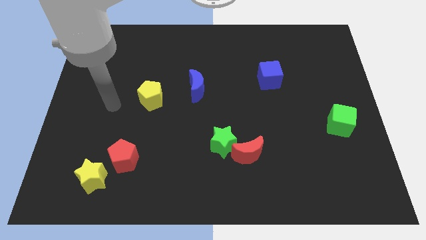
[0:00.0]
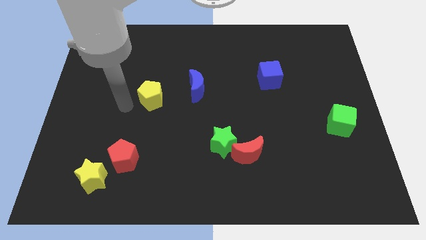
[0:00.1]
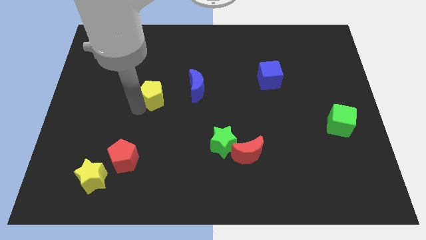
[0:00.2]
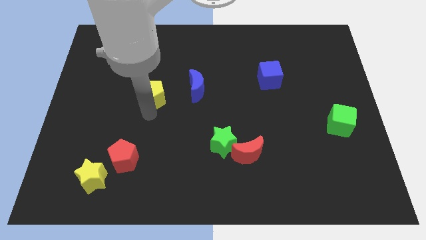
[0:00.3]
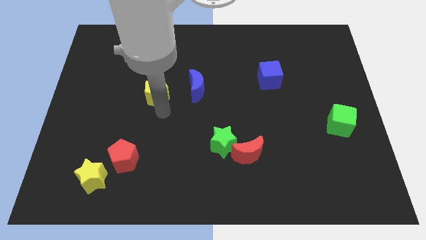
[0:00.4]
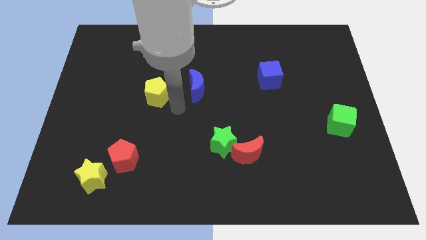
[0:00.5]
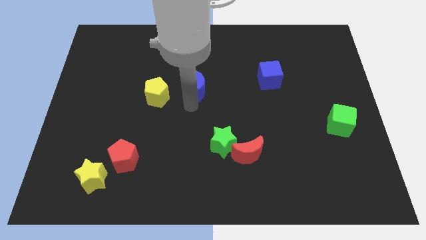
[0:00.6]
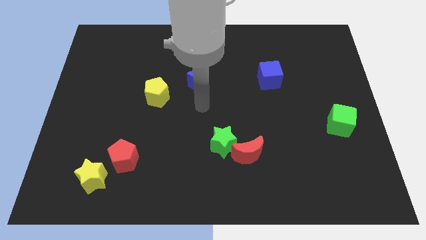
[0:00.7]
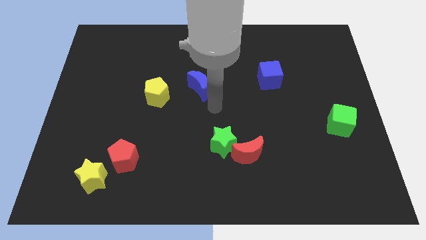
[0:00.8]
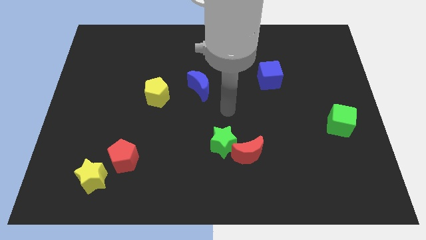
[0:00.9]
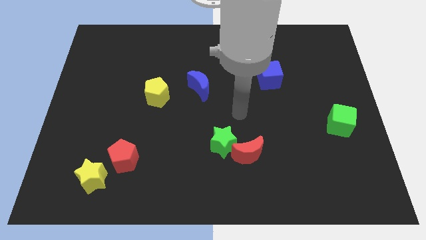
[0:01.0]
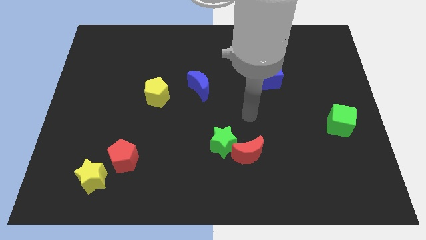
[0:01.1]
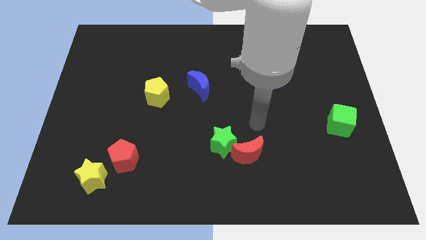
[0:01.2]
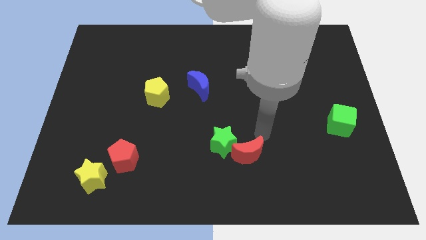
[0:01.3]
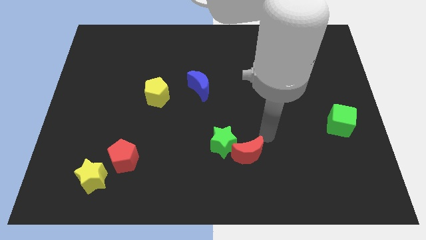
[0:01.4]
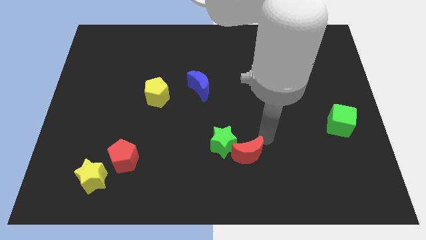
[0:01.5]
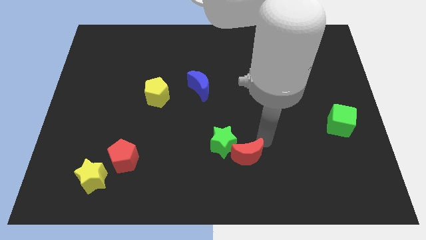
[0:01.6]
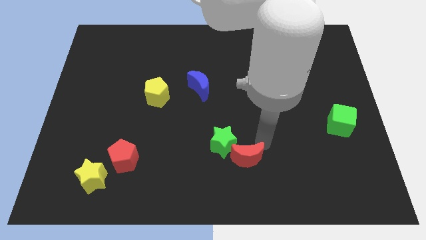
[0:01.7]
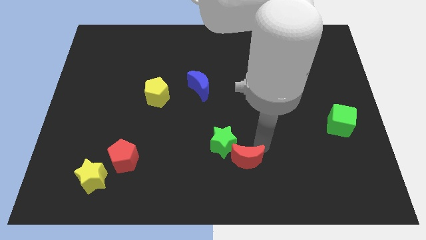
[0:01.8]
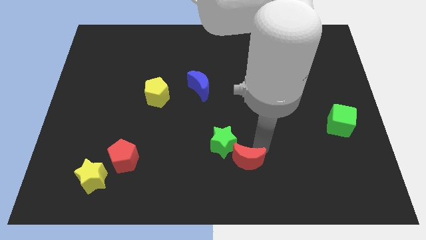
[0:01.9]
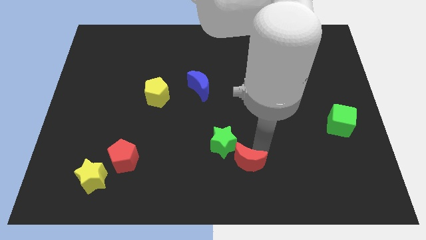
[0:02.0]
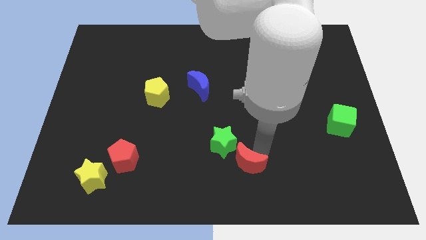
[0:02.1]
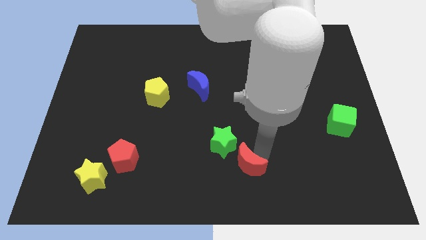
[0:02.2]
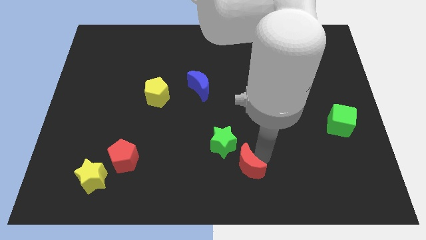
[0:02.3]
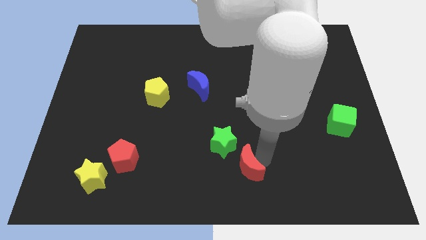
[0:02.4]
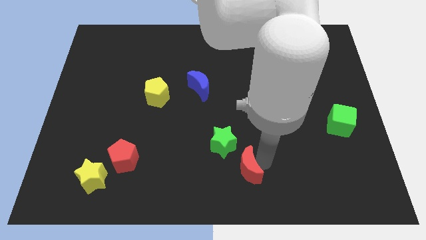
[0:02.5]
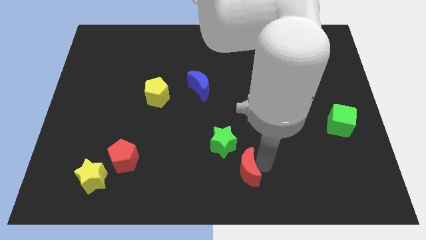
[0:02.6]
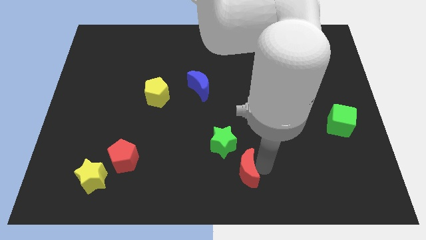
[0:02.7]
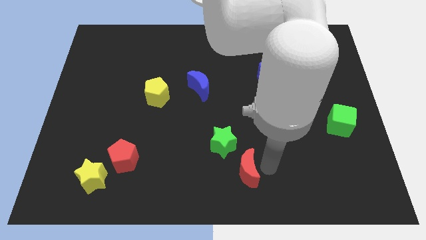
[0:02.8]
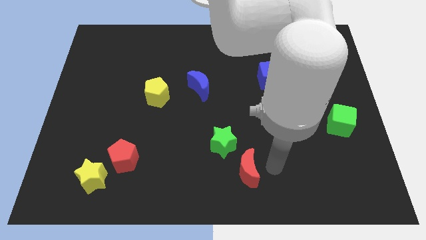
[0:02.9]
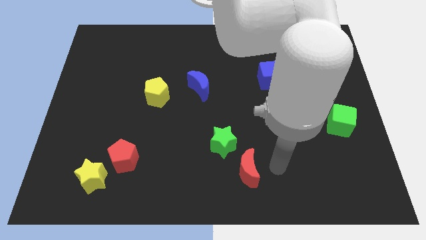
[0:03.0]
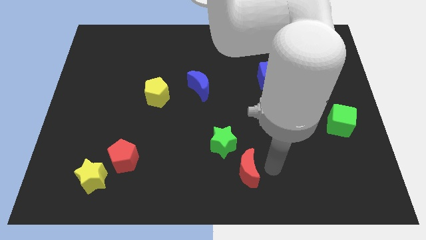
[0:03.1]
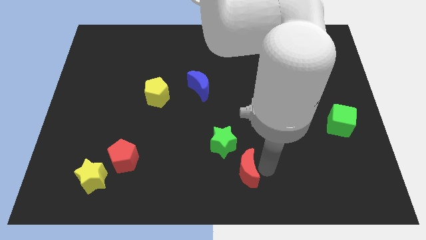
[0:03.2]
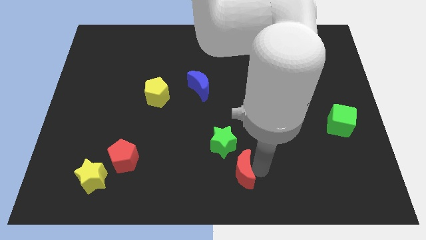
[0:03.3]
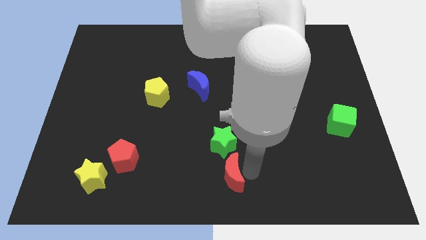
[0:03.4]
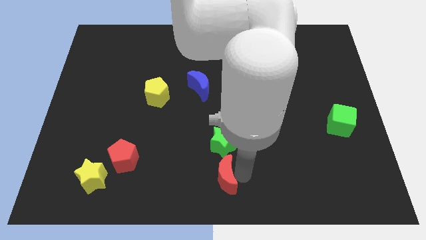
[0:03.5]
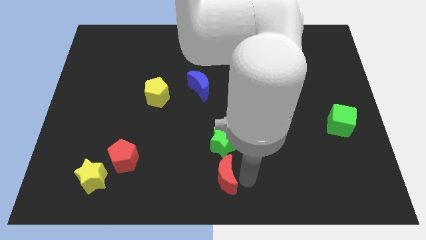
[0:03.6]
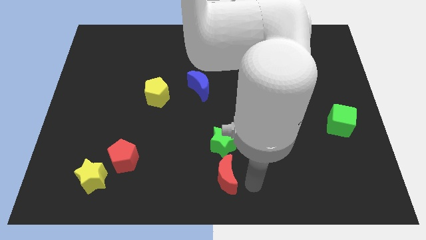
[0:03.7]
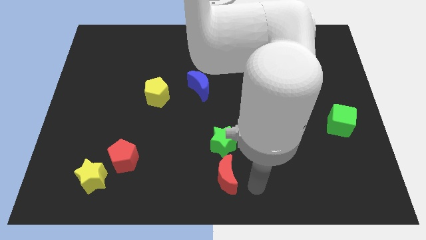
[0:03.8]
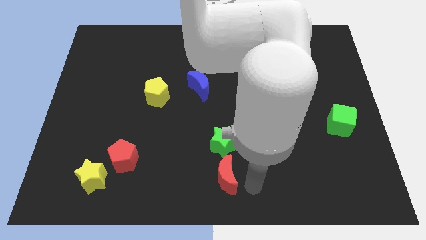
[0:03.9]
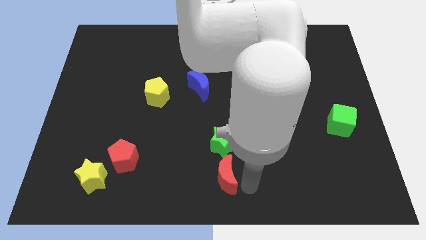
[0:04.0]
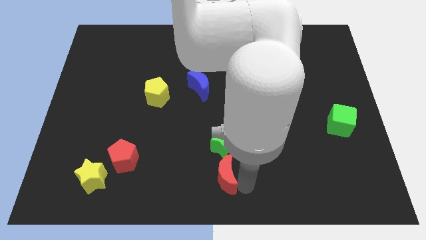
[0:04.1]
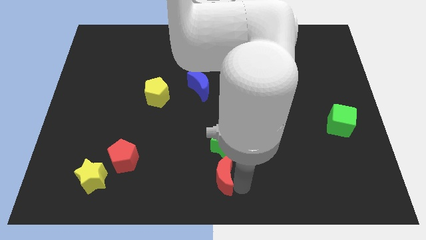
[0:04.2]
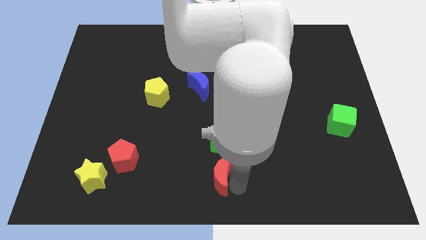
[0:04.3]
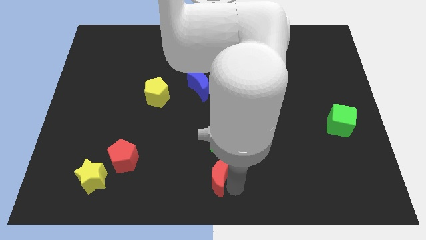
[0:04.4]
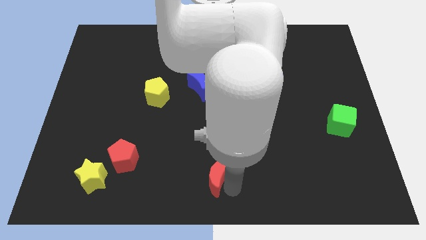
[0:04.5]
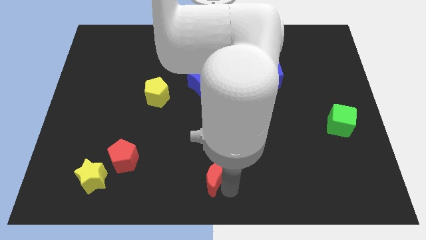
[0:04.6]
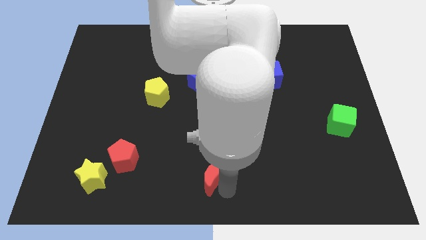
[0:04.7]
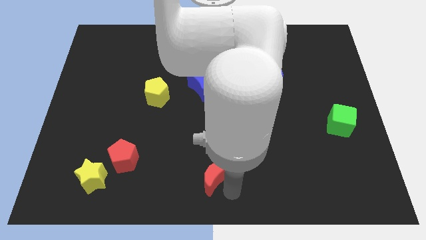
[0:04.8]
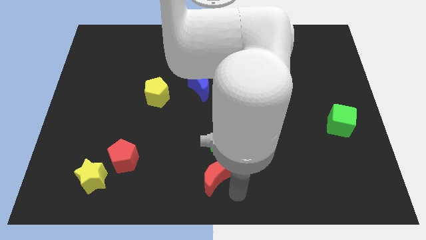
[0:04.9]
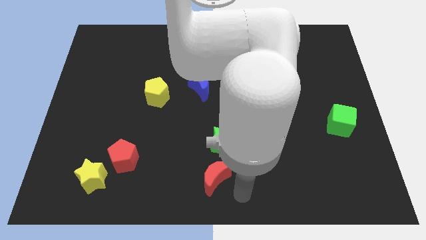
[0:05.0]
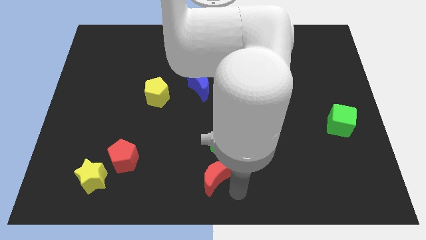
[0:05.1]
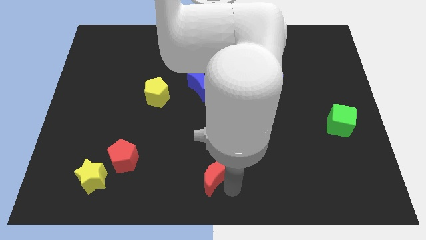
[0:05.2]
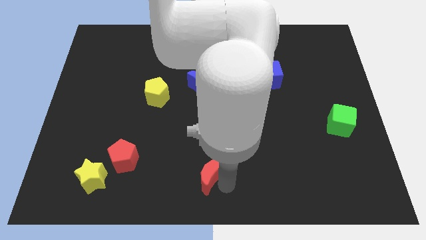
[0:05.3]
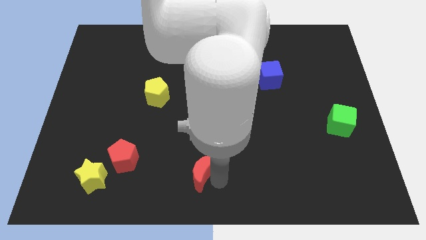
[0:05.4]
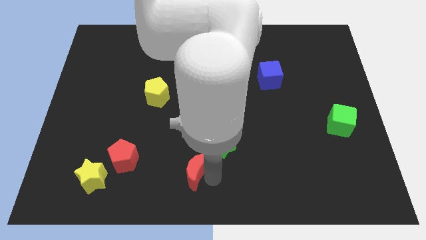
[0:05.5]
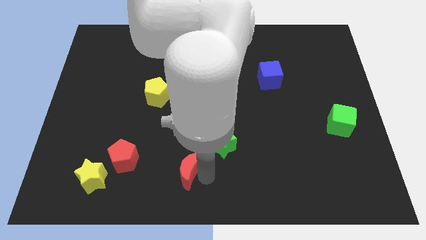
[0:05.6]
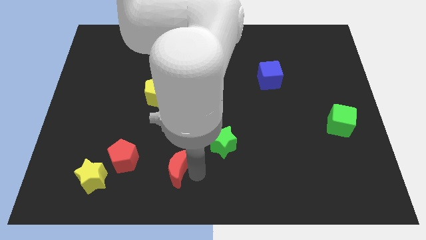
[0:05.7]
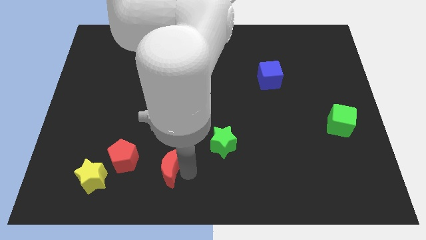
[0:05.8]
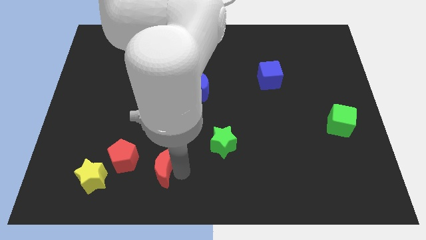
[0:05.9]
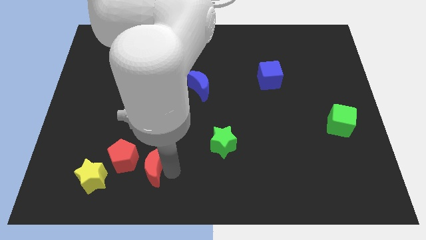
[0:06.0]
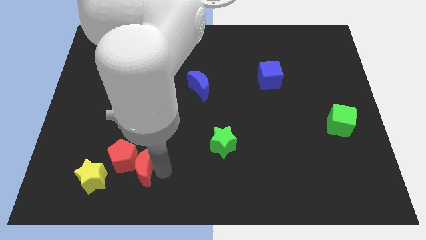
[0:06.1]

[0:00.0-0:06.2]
move the red moon to the red pentagon
